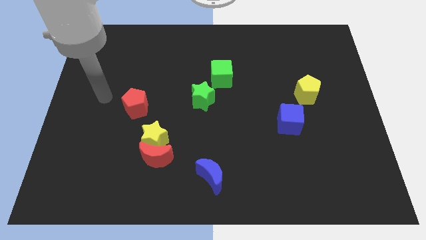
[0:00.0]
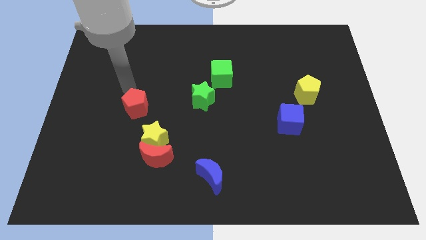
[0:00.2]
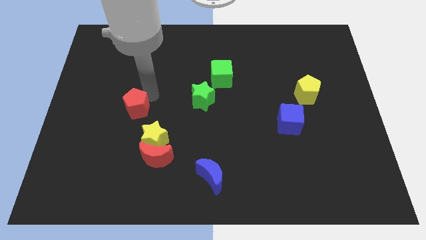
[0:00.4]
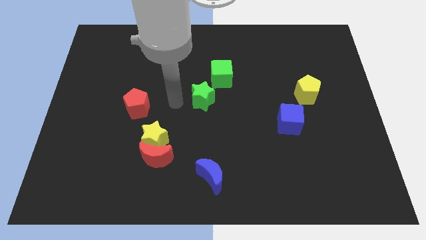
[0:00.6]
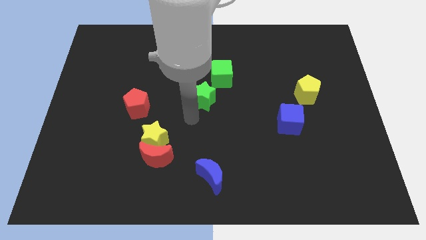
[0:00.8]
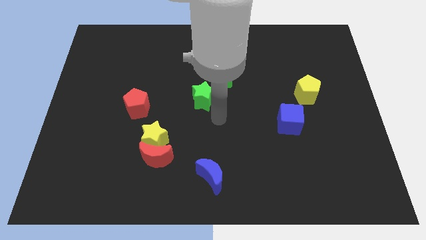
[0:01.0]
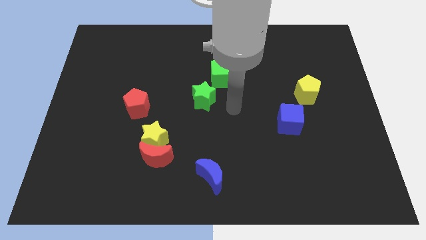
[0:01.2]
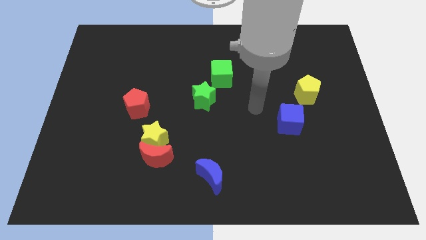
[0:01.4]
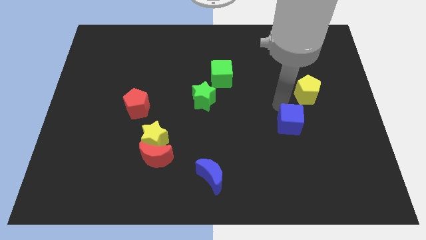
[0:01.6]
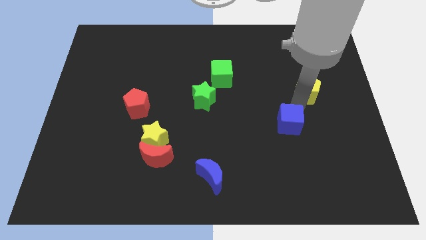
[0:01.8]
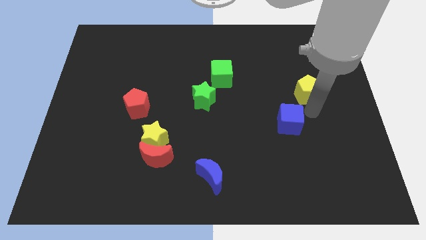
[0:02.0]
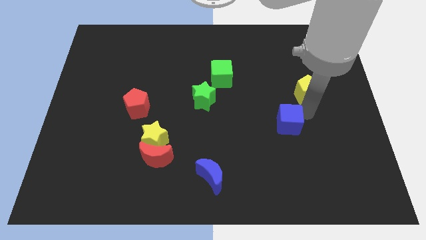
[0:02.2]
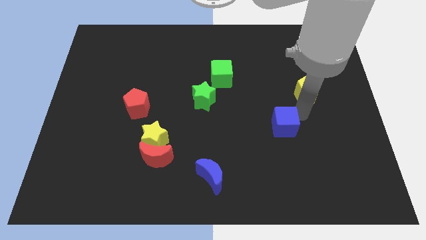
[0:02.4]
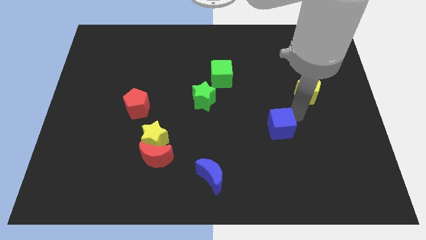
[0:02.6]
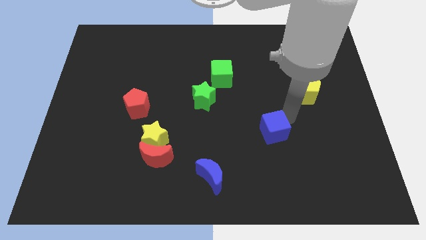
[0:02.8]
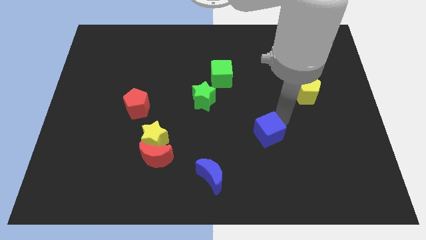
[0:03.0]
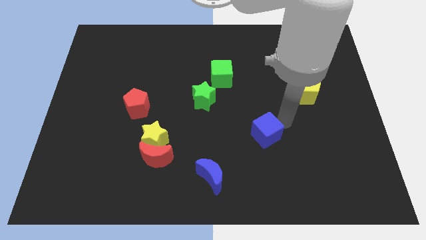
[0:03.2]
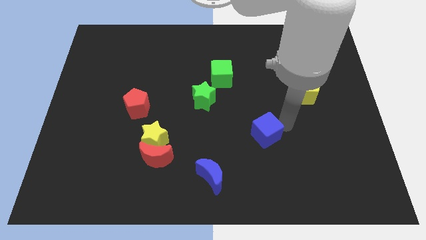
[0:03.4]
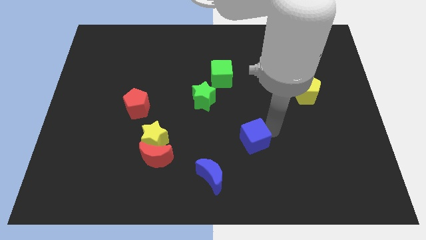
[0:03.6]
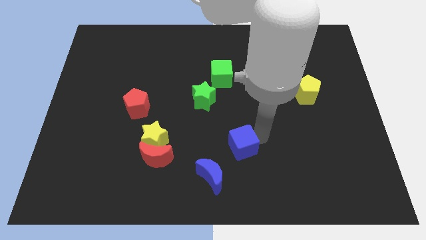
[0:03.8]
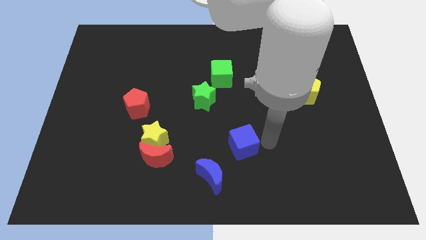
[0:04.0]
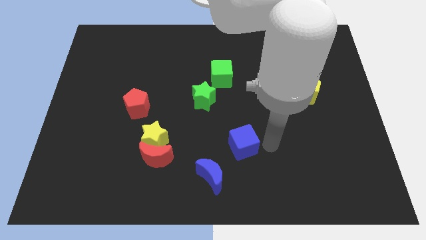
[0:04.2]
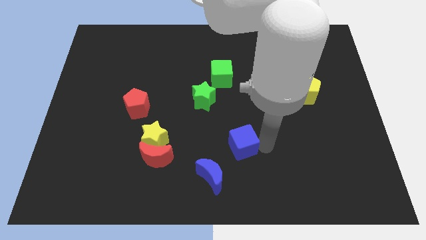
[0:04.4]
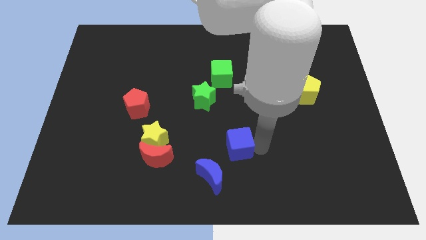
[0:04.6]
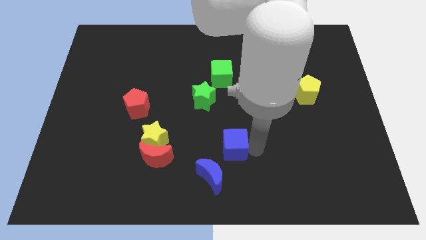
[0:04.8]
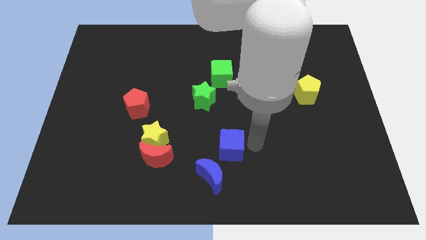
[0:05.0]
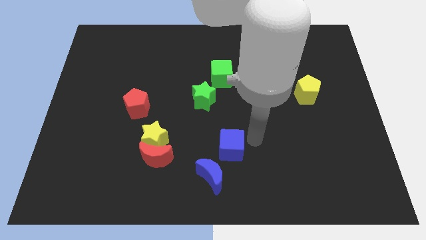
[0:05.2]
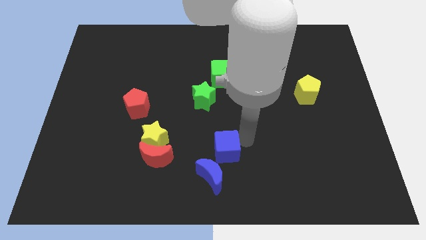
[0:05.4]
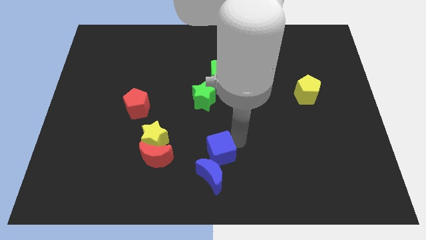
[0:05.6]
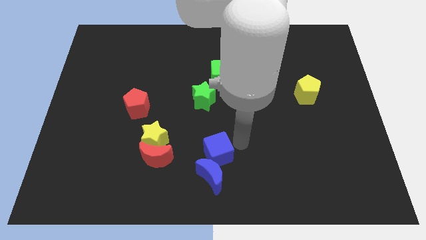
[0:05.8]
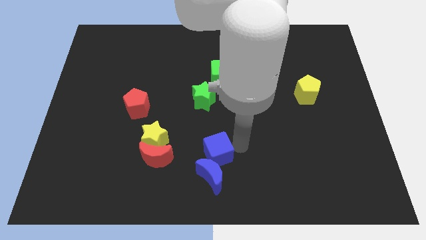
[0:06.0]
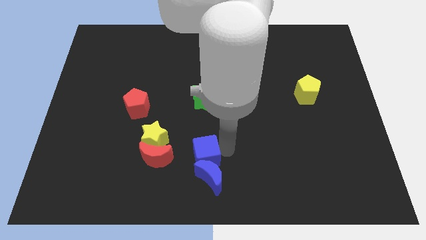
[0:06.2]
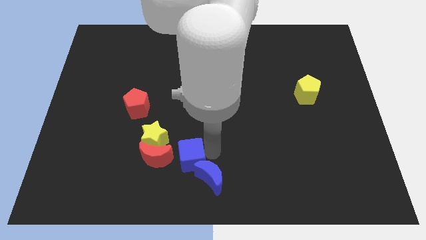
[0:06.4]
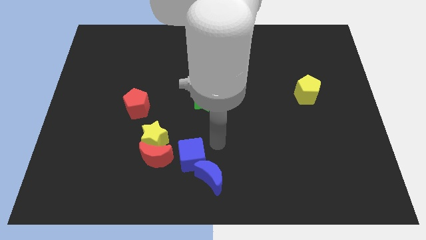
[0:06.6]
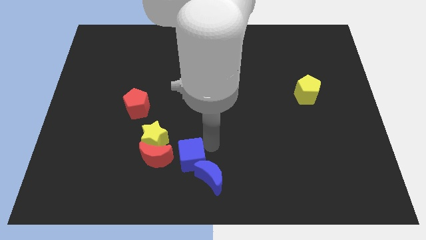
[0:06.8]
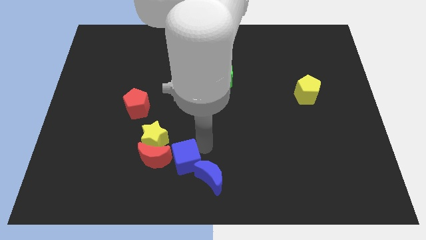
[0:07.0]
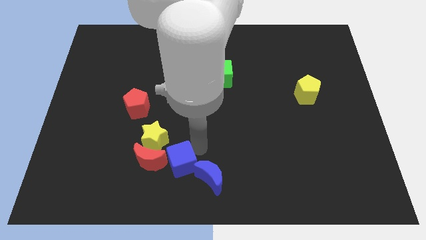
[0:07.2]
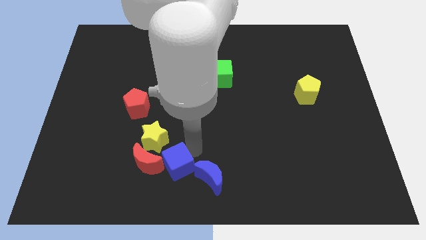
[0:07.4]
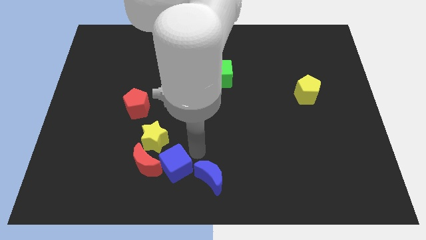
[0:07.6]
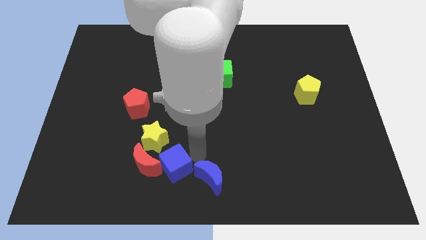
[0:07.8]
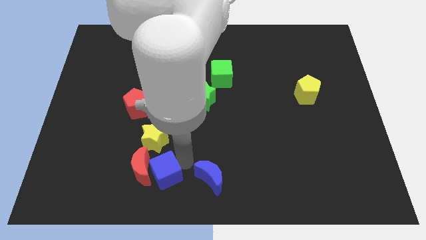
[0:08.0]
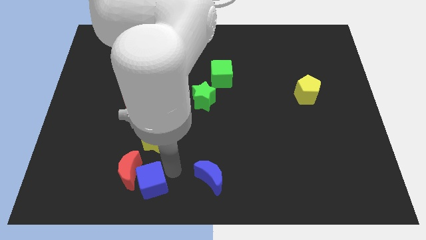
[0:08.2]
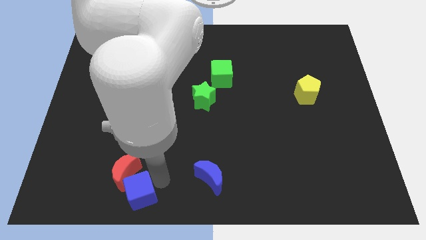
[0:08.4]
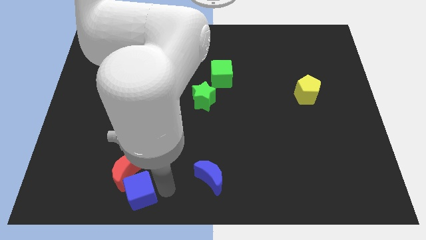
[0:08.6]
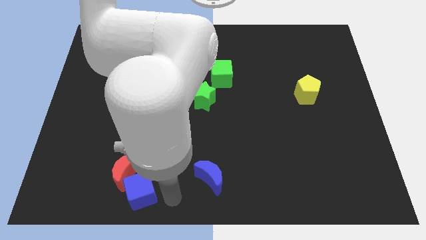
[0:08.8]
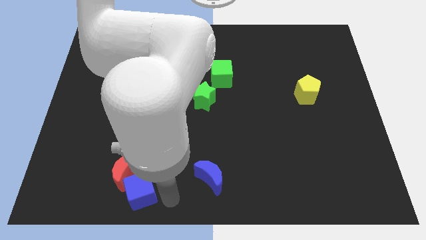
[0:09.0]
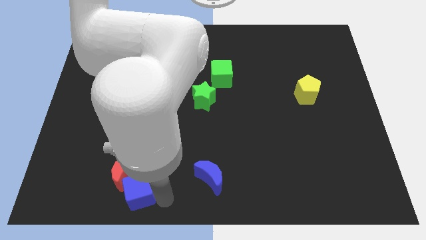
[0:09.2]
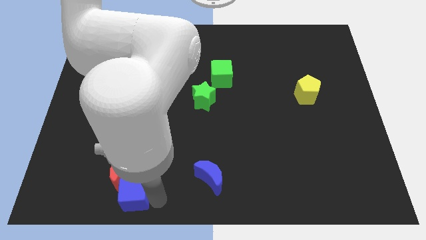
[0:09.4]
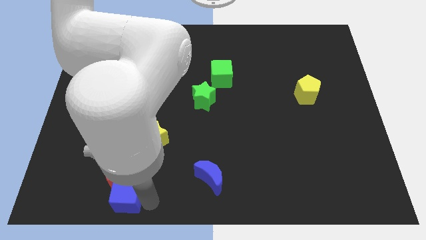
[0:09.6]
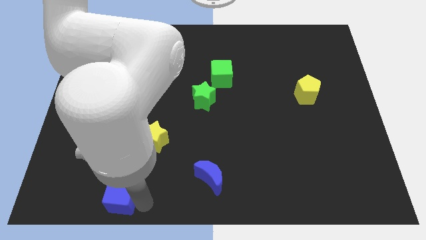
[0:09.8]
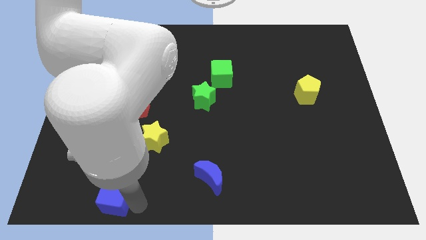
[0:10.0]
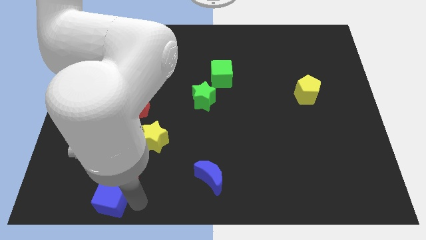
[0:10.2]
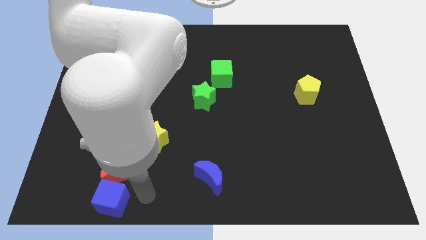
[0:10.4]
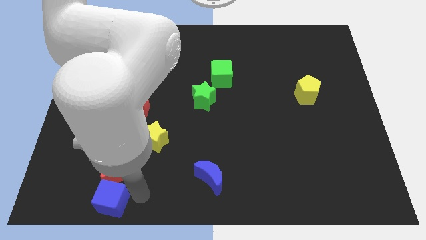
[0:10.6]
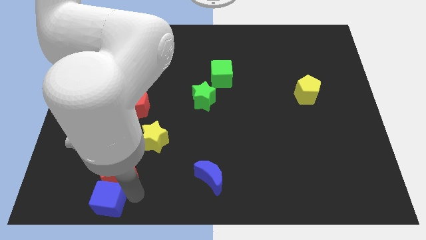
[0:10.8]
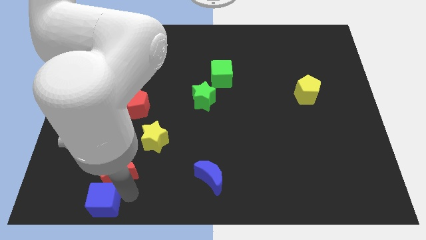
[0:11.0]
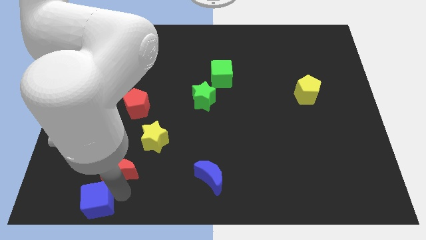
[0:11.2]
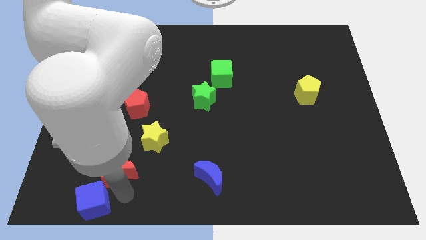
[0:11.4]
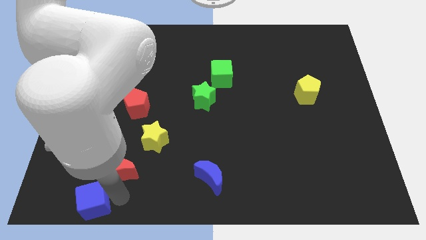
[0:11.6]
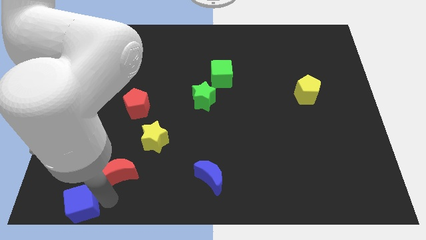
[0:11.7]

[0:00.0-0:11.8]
push the blue cube to the bottom left corner

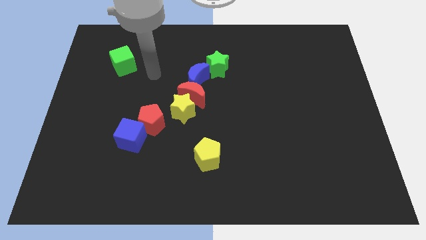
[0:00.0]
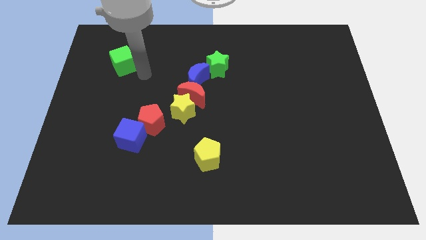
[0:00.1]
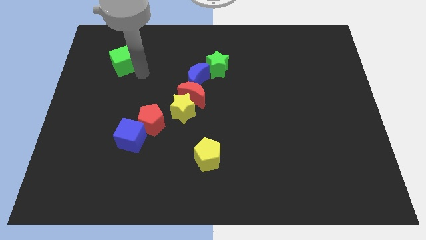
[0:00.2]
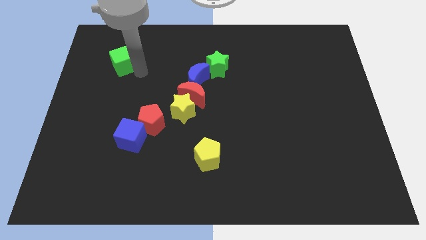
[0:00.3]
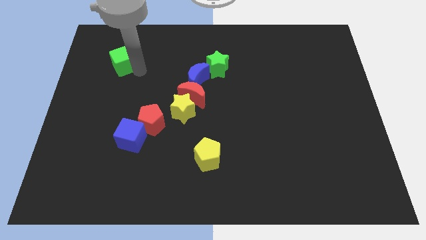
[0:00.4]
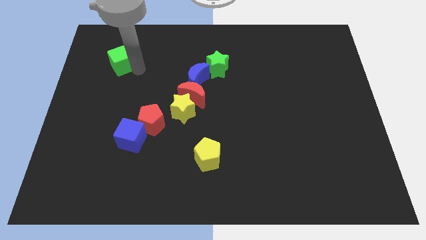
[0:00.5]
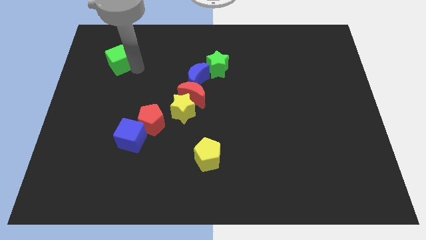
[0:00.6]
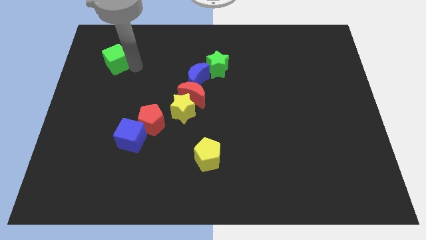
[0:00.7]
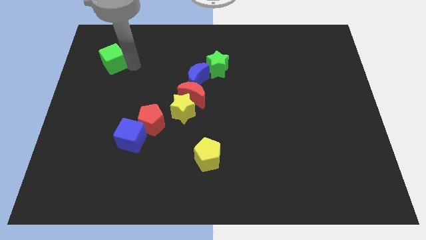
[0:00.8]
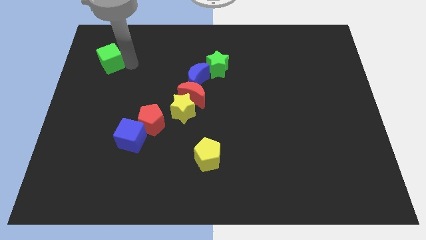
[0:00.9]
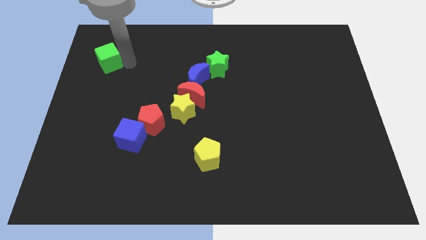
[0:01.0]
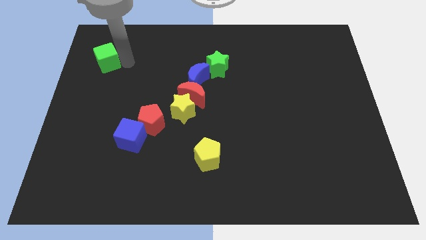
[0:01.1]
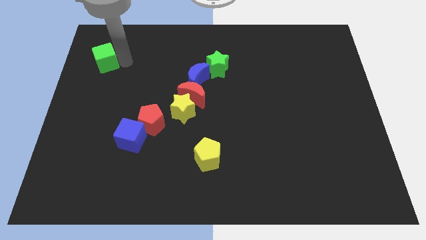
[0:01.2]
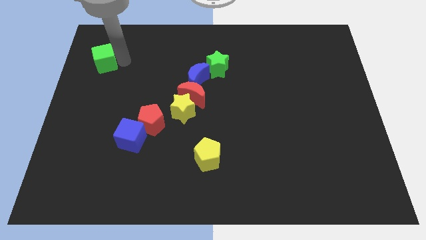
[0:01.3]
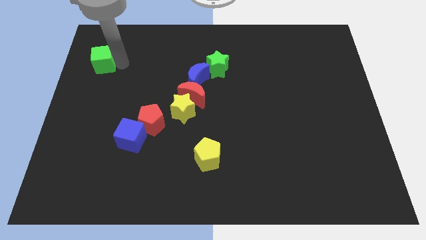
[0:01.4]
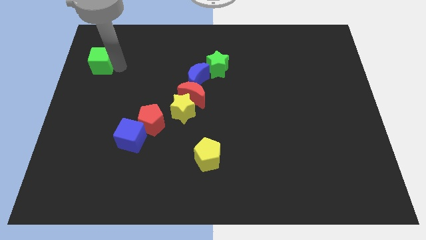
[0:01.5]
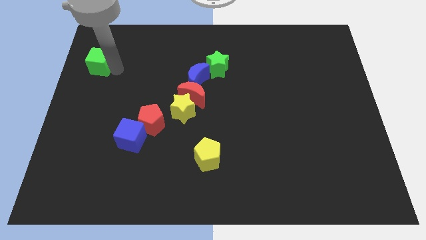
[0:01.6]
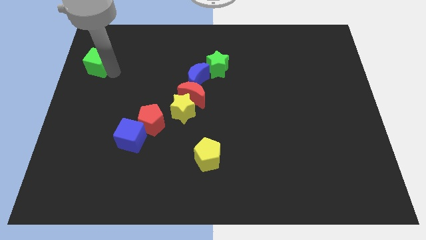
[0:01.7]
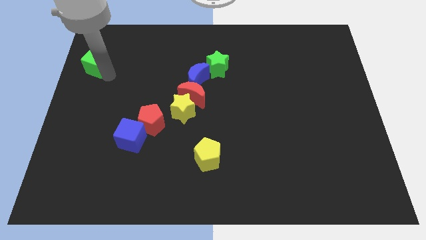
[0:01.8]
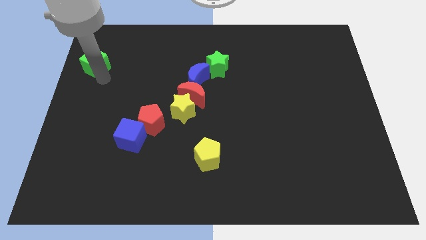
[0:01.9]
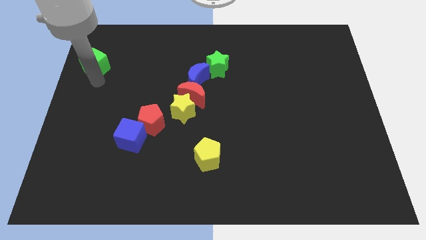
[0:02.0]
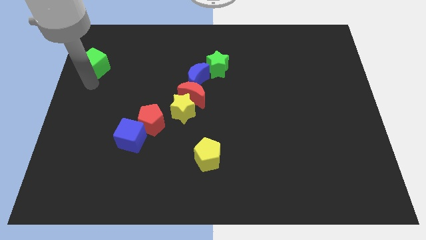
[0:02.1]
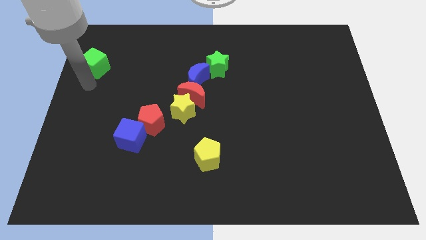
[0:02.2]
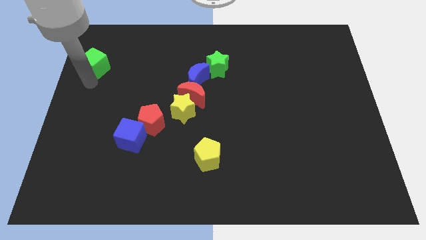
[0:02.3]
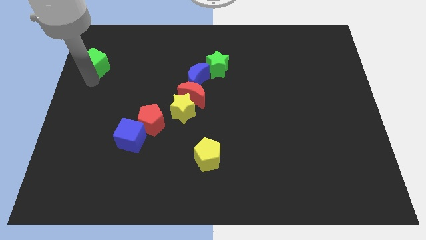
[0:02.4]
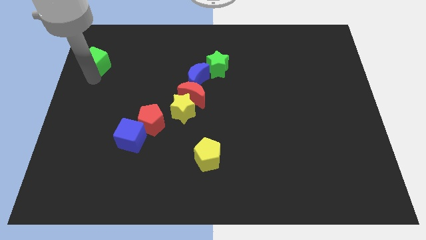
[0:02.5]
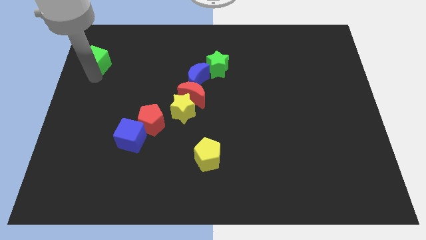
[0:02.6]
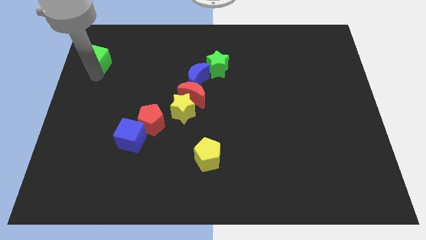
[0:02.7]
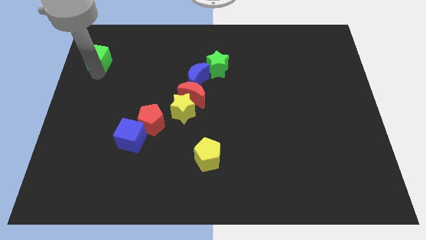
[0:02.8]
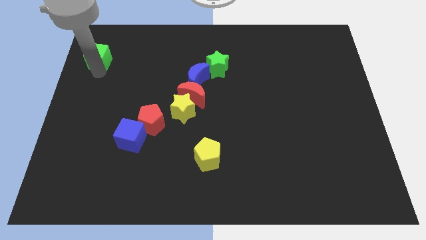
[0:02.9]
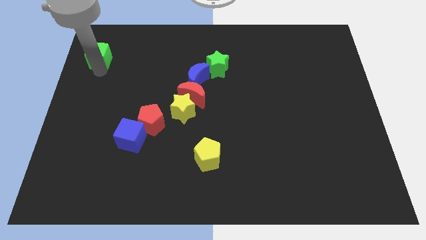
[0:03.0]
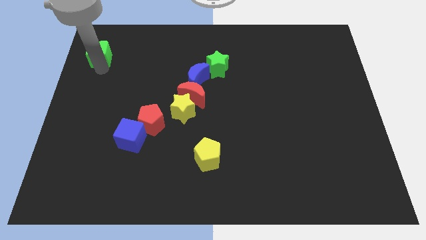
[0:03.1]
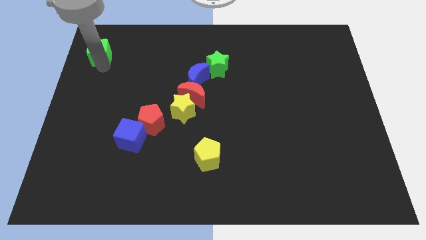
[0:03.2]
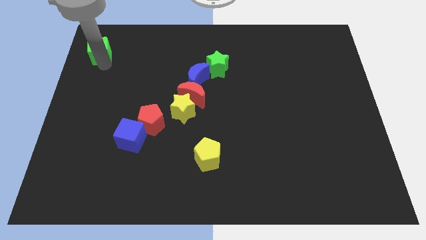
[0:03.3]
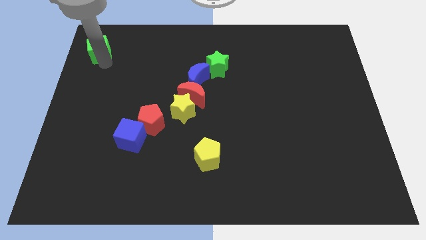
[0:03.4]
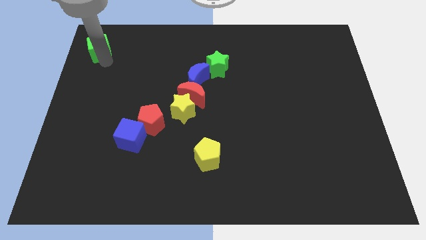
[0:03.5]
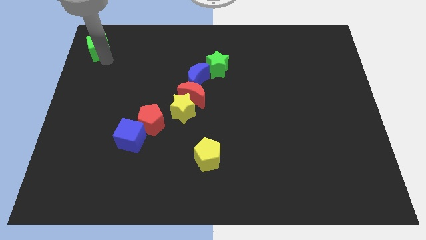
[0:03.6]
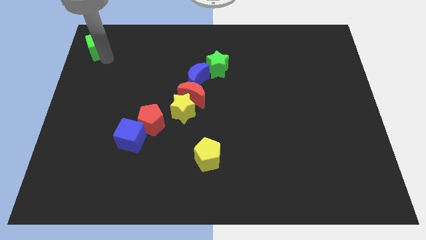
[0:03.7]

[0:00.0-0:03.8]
put the green cube to the top left corner
